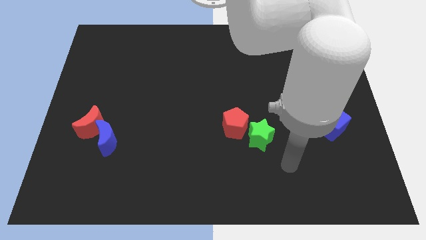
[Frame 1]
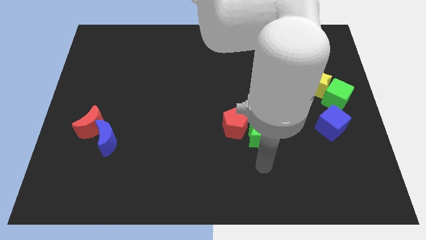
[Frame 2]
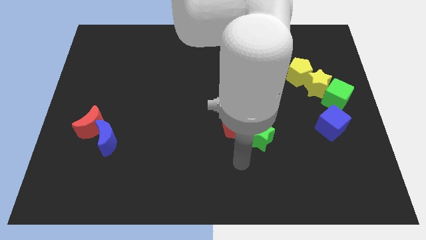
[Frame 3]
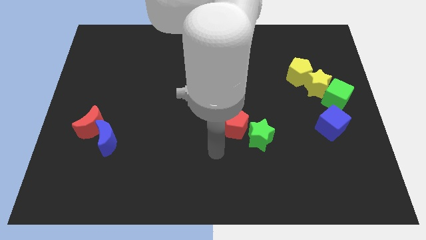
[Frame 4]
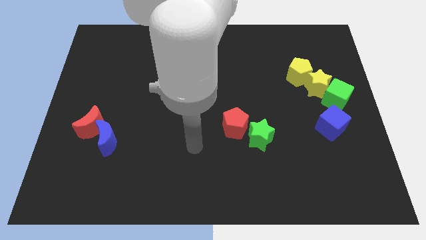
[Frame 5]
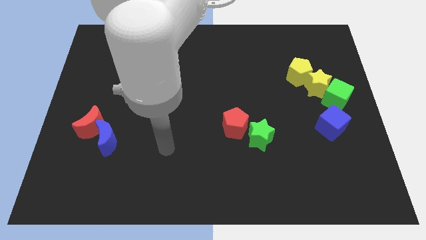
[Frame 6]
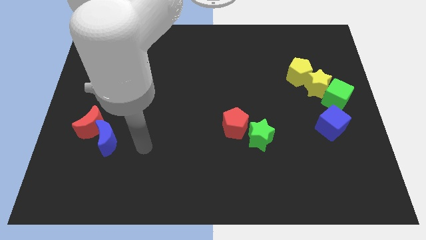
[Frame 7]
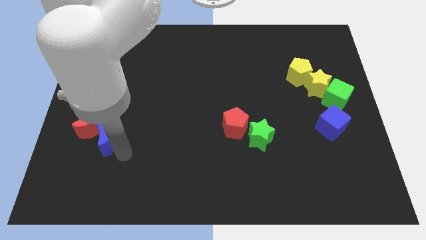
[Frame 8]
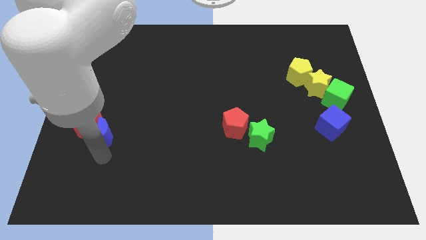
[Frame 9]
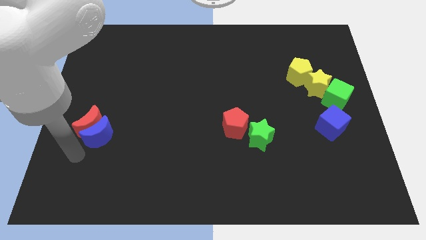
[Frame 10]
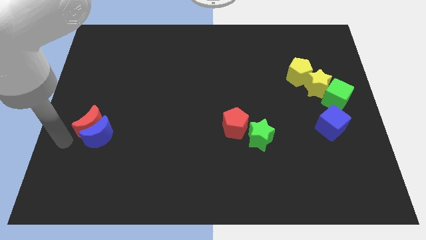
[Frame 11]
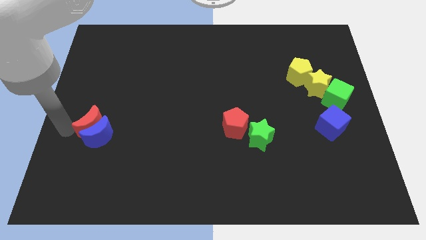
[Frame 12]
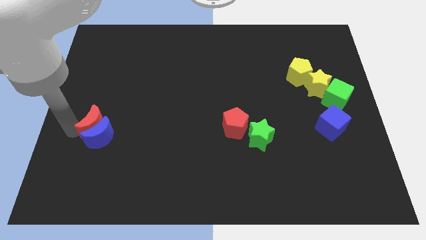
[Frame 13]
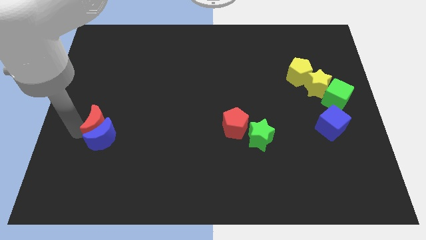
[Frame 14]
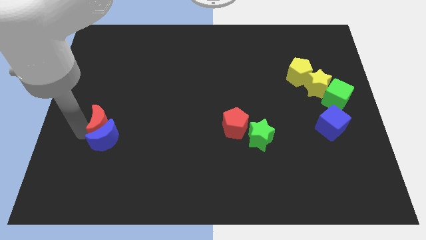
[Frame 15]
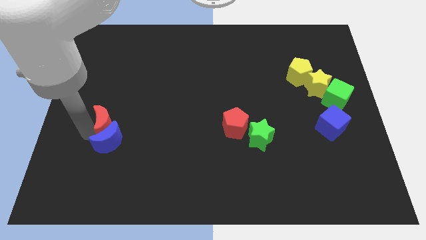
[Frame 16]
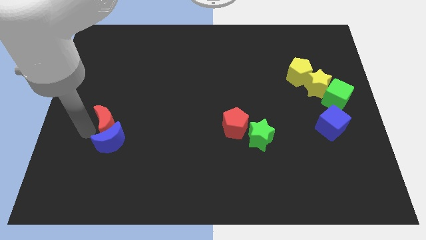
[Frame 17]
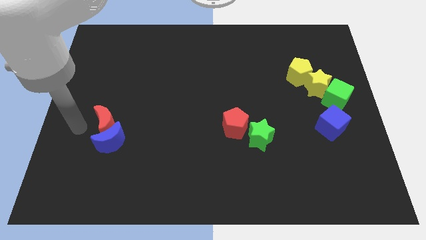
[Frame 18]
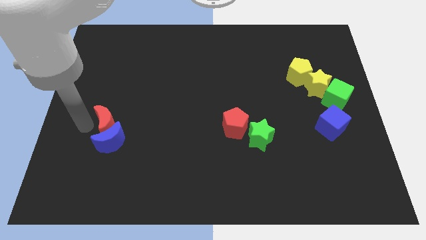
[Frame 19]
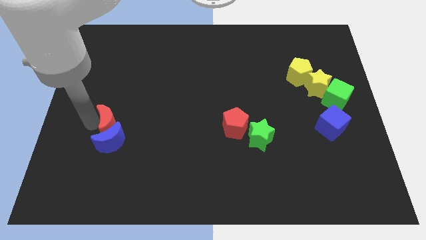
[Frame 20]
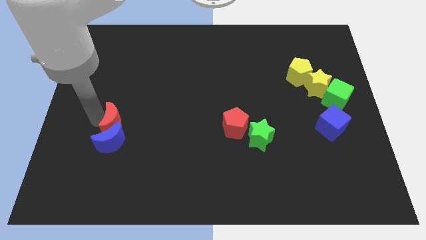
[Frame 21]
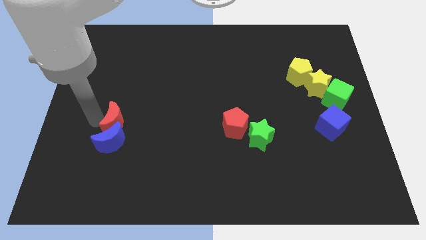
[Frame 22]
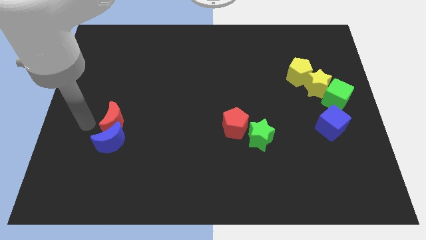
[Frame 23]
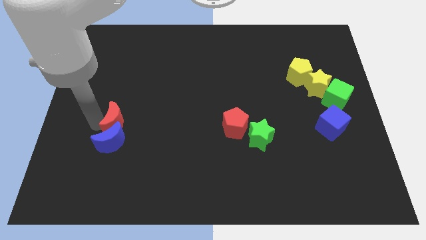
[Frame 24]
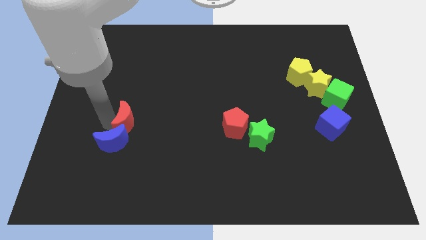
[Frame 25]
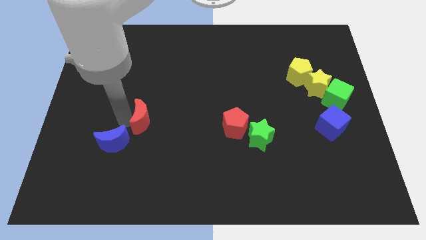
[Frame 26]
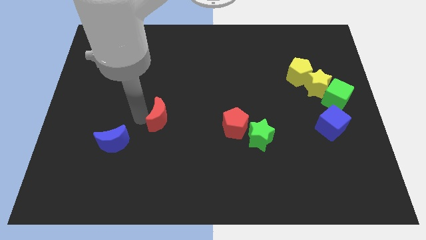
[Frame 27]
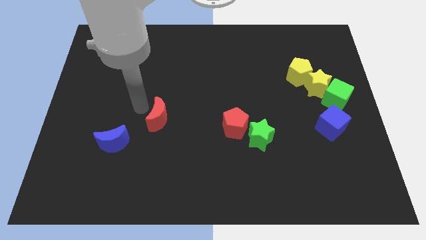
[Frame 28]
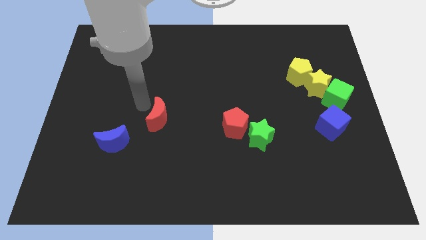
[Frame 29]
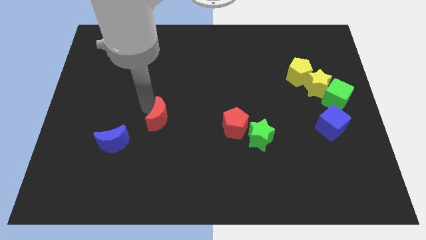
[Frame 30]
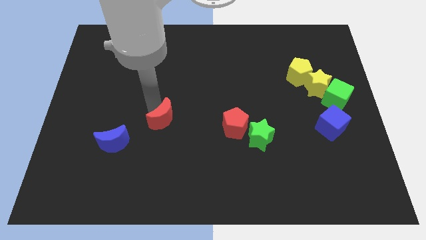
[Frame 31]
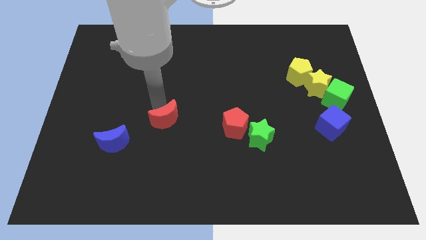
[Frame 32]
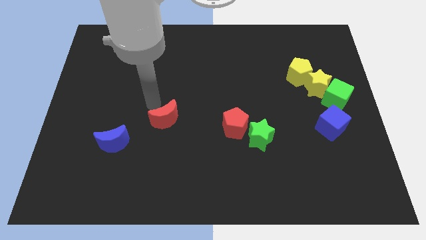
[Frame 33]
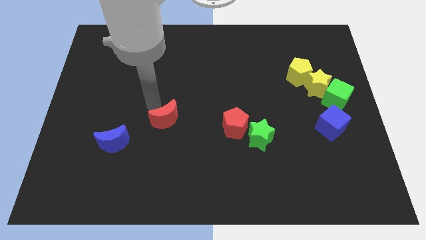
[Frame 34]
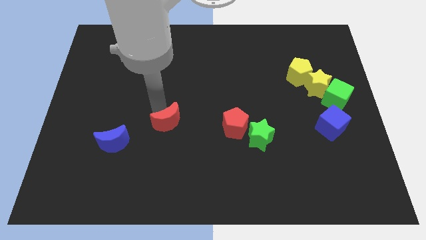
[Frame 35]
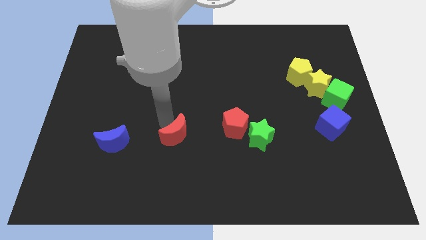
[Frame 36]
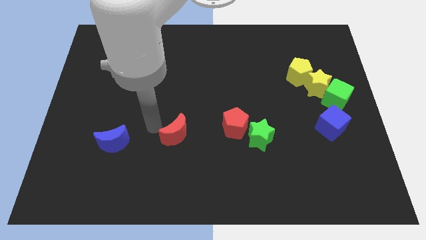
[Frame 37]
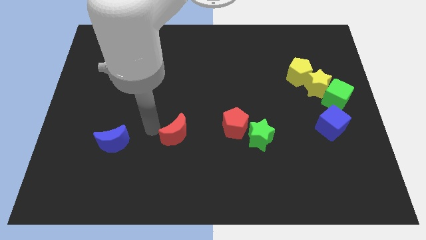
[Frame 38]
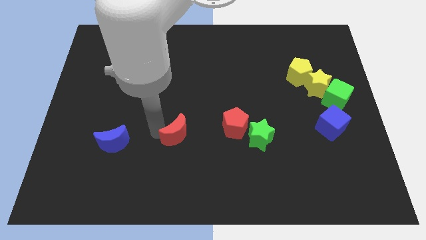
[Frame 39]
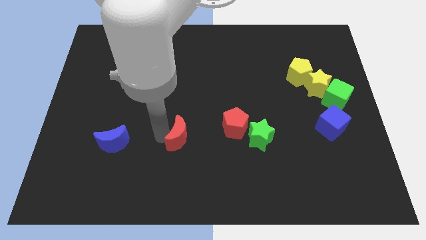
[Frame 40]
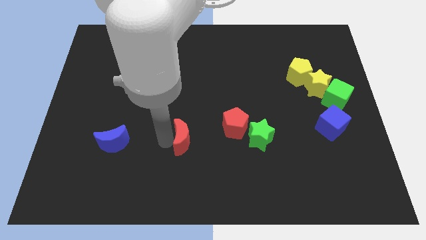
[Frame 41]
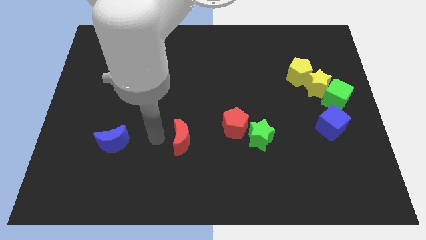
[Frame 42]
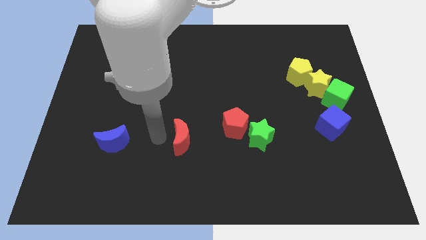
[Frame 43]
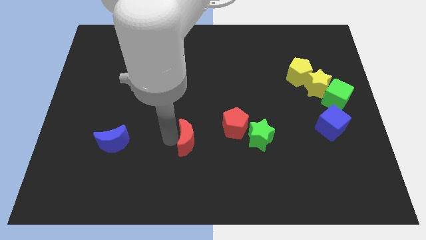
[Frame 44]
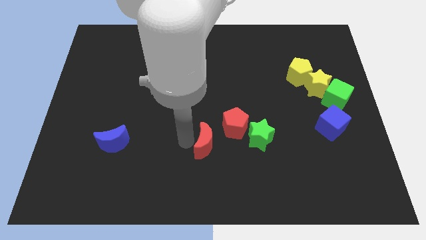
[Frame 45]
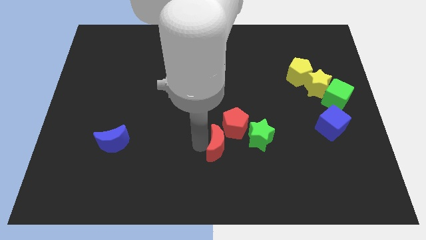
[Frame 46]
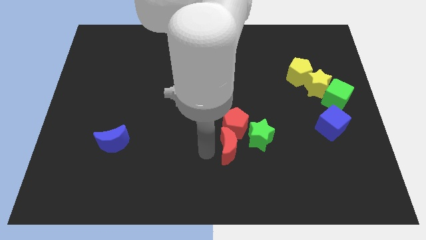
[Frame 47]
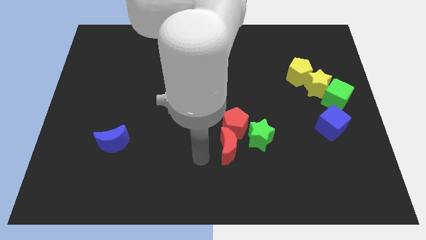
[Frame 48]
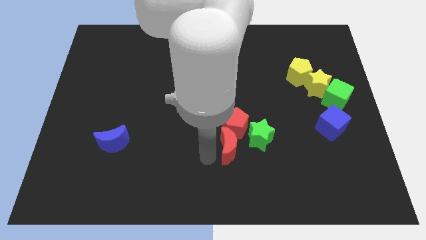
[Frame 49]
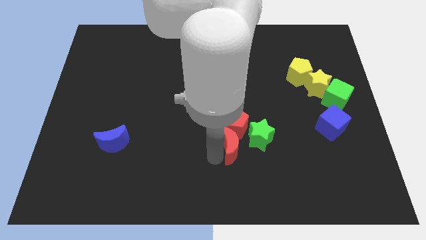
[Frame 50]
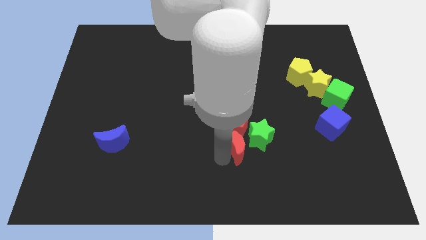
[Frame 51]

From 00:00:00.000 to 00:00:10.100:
move the red moon towards the green star

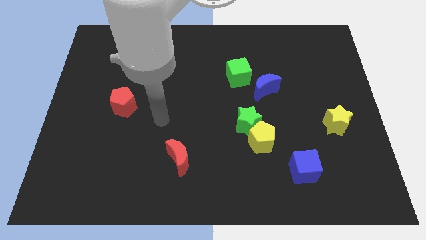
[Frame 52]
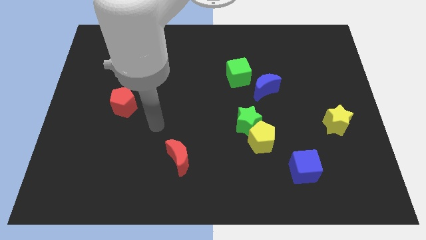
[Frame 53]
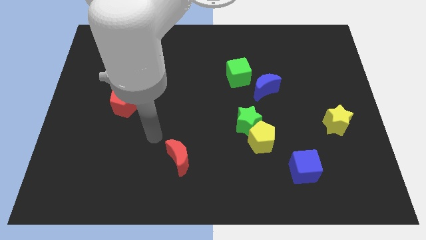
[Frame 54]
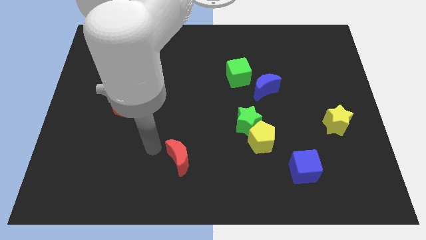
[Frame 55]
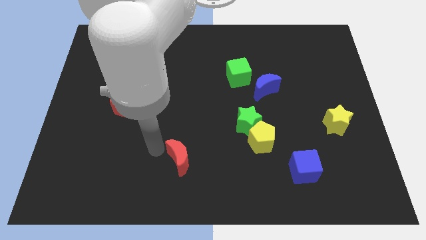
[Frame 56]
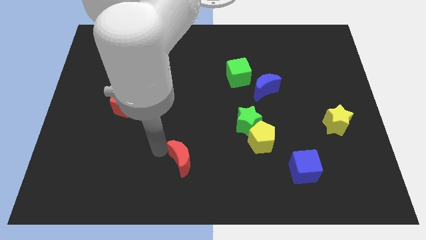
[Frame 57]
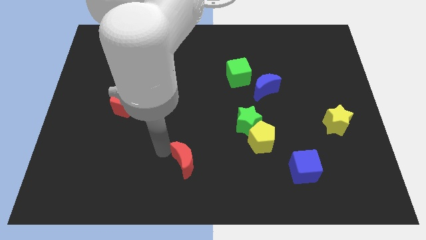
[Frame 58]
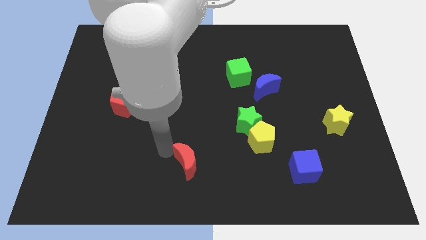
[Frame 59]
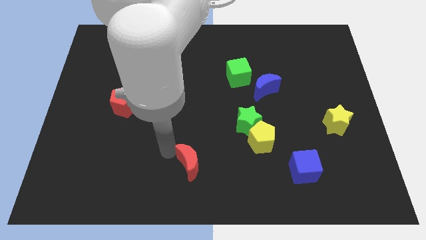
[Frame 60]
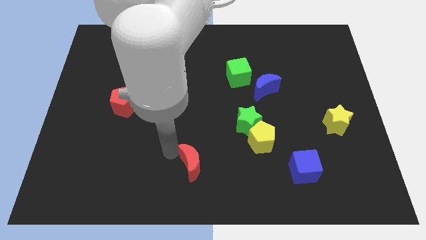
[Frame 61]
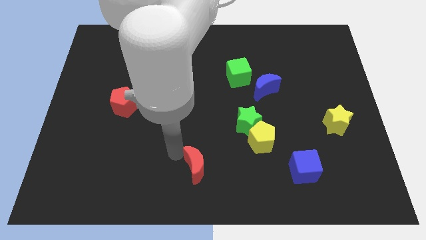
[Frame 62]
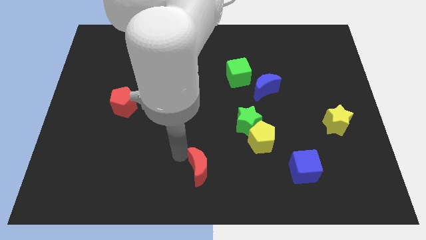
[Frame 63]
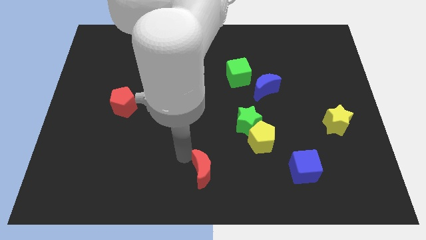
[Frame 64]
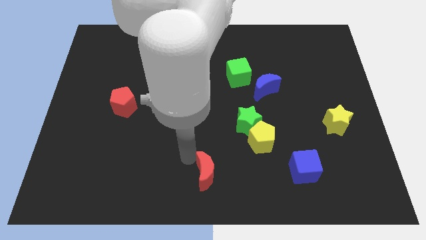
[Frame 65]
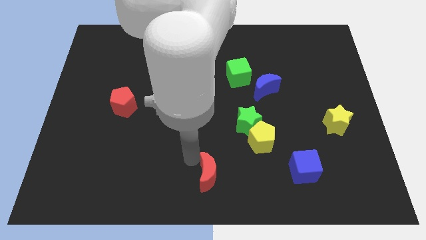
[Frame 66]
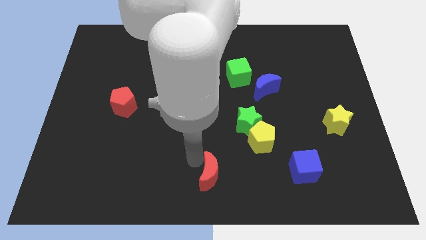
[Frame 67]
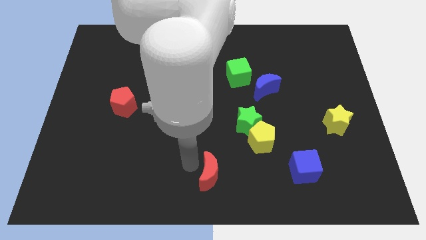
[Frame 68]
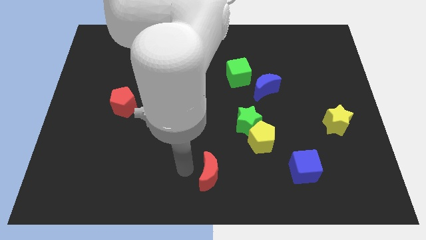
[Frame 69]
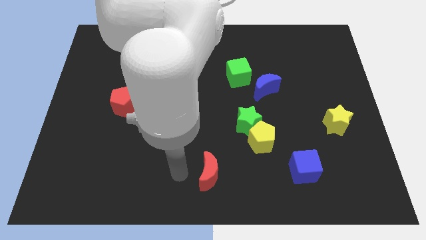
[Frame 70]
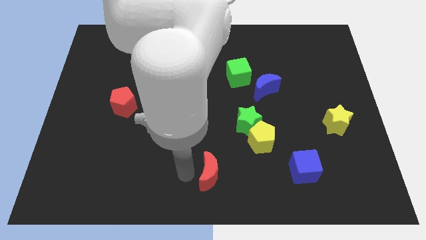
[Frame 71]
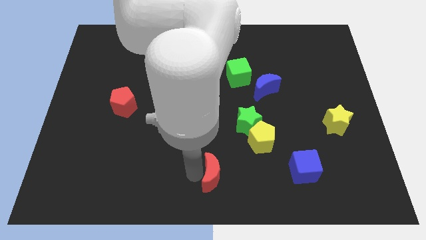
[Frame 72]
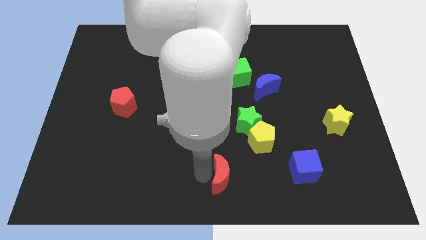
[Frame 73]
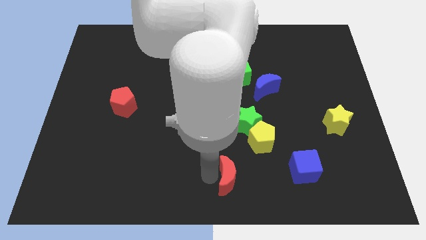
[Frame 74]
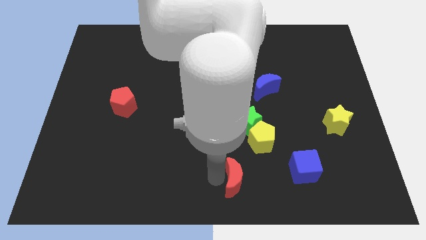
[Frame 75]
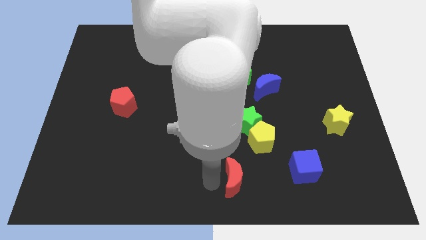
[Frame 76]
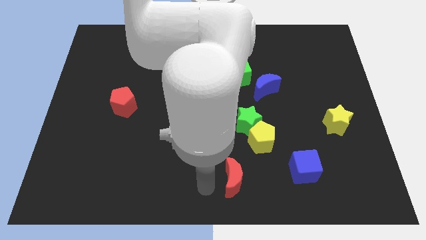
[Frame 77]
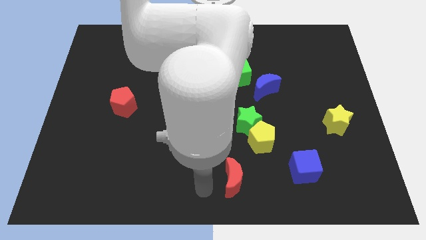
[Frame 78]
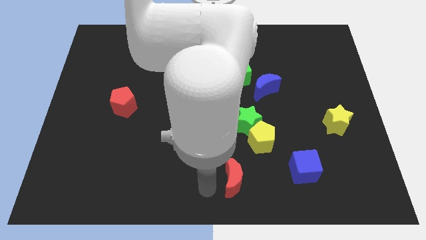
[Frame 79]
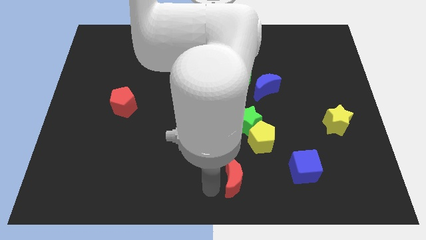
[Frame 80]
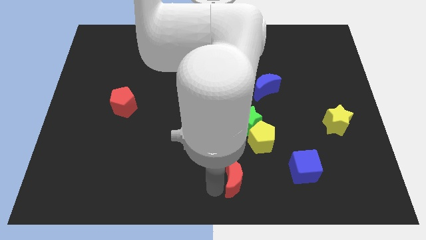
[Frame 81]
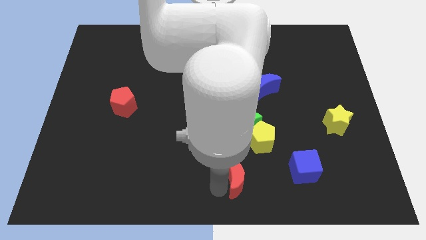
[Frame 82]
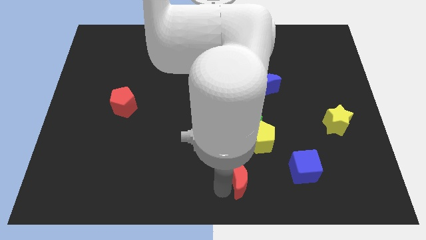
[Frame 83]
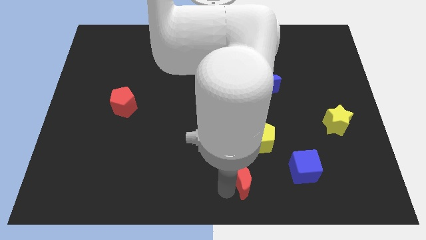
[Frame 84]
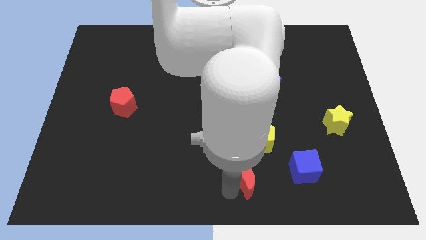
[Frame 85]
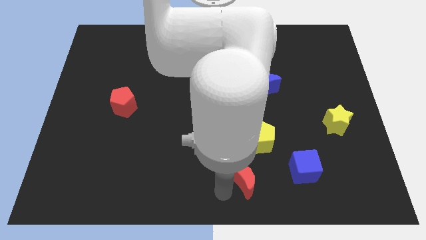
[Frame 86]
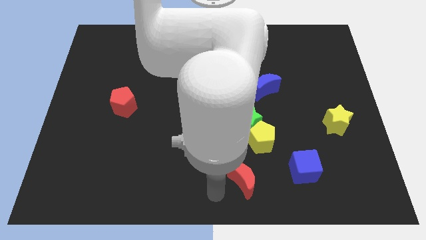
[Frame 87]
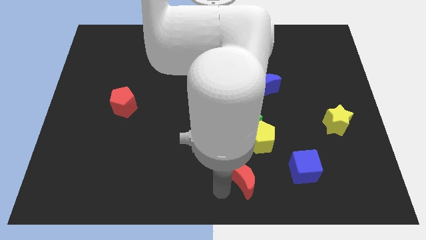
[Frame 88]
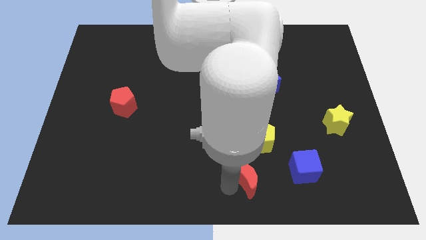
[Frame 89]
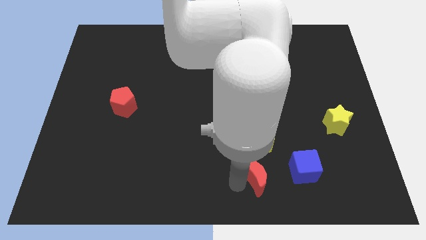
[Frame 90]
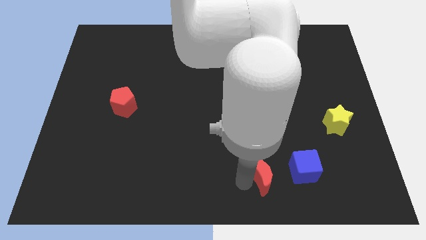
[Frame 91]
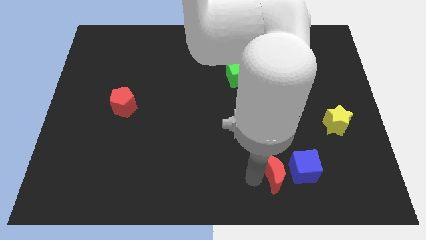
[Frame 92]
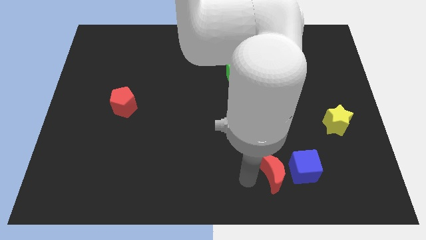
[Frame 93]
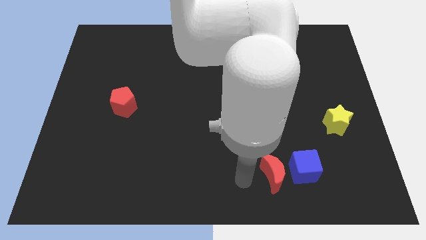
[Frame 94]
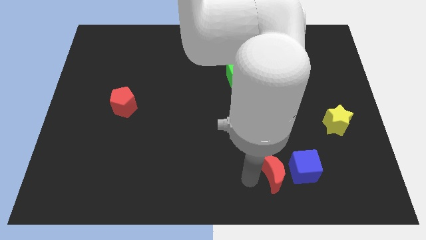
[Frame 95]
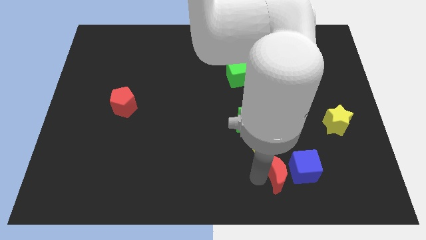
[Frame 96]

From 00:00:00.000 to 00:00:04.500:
put the red moon close to the blue cube
